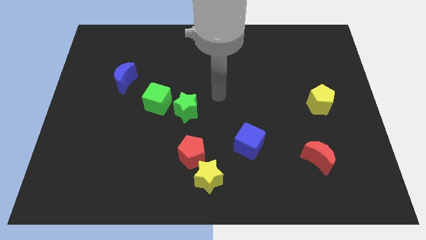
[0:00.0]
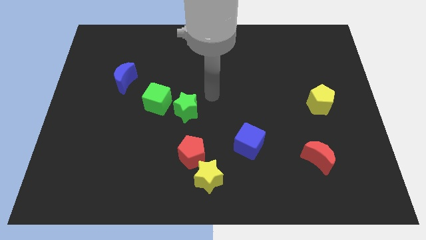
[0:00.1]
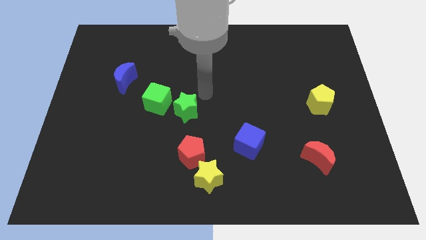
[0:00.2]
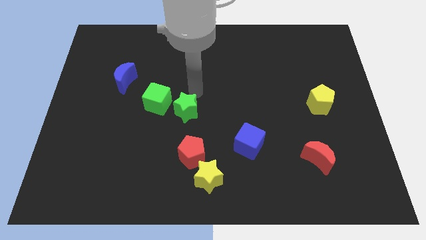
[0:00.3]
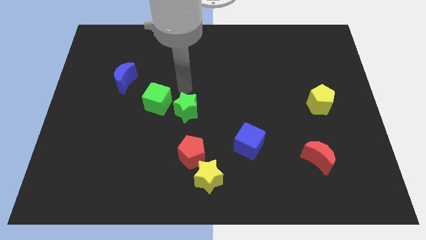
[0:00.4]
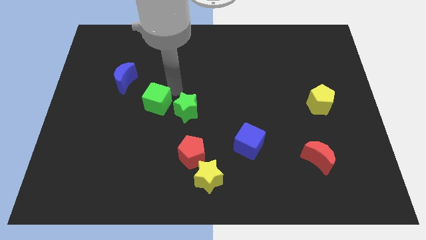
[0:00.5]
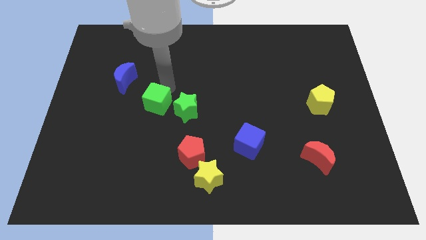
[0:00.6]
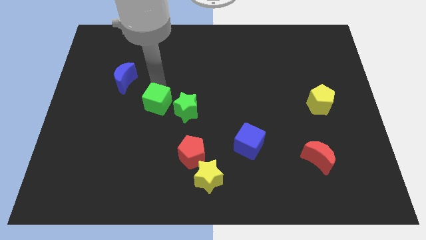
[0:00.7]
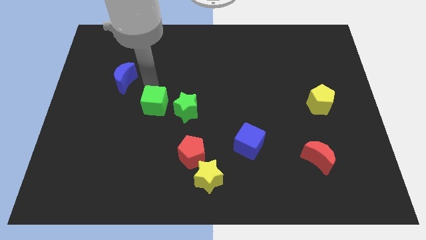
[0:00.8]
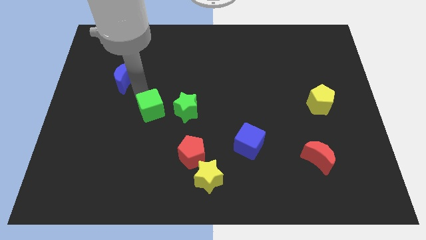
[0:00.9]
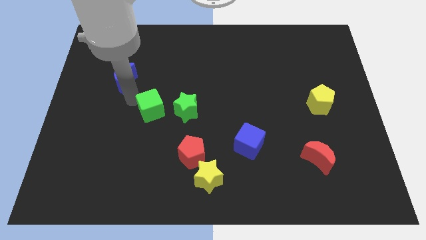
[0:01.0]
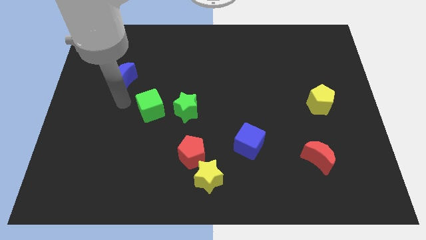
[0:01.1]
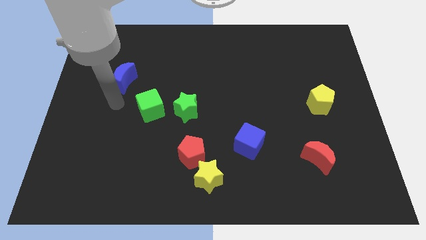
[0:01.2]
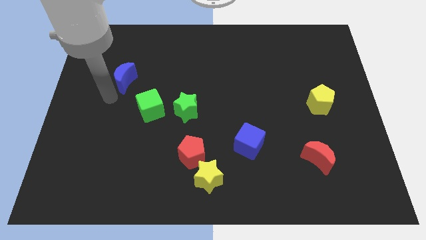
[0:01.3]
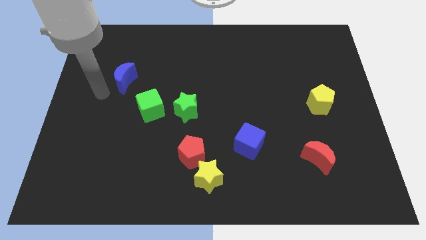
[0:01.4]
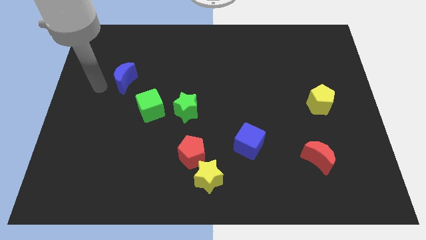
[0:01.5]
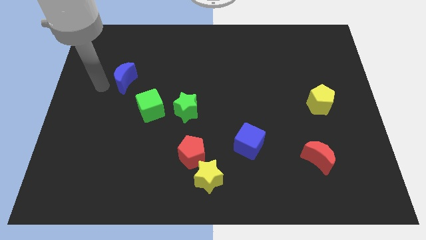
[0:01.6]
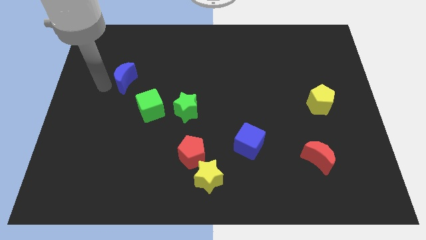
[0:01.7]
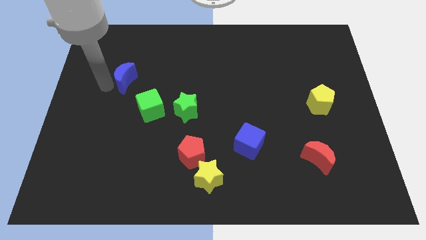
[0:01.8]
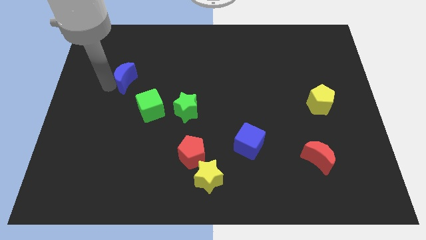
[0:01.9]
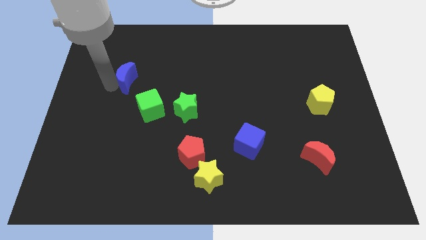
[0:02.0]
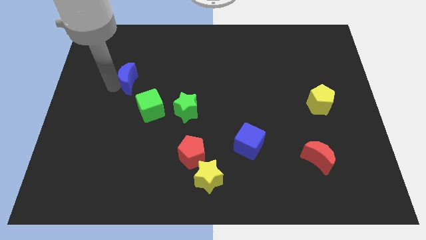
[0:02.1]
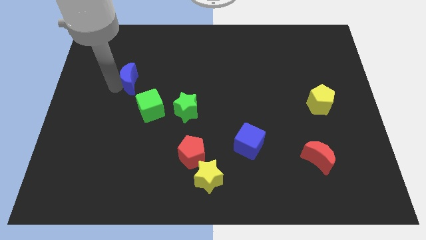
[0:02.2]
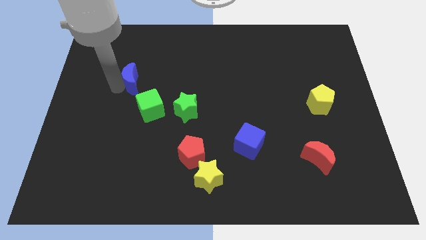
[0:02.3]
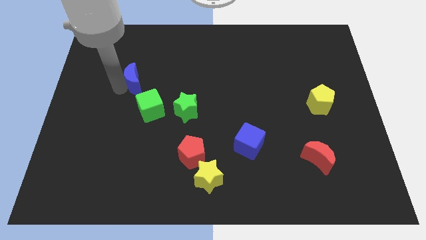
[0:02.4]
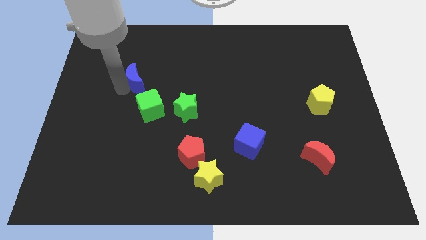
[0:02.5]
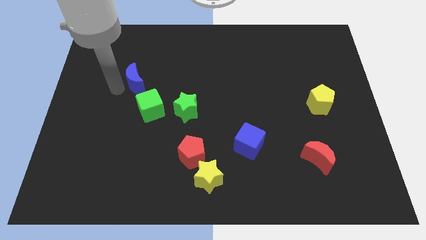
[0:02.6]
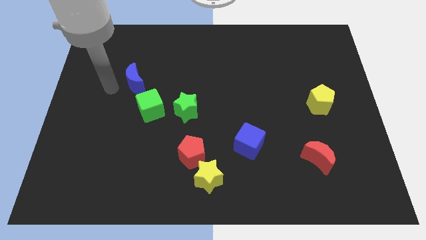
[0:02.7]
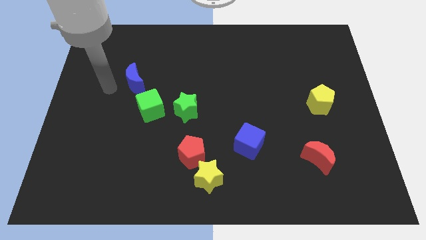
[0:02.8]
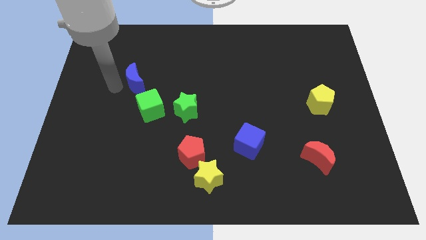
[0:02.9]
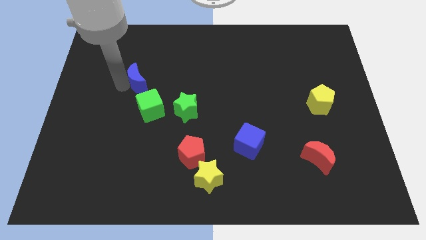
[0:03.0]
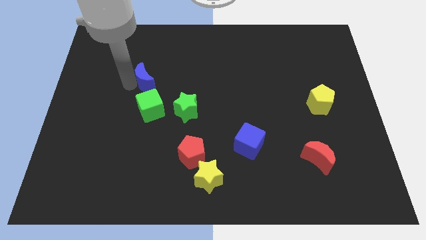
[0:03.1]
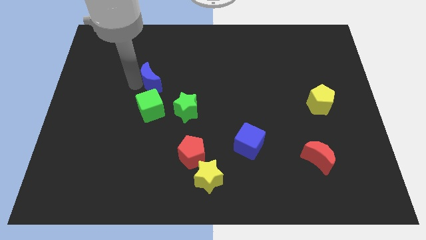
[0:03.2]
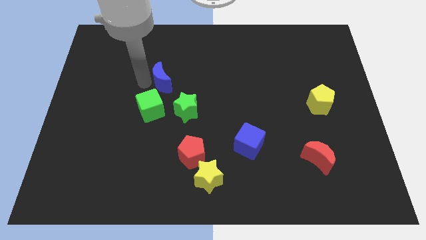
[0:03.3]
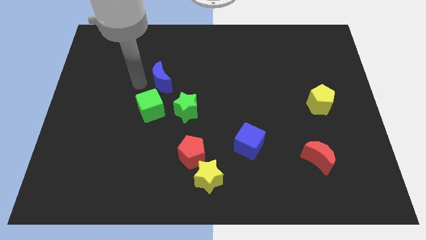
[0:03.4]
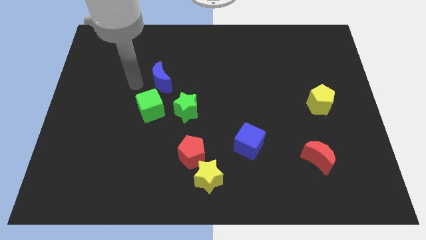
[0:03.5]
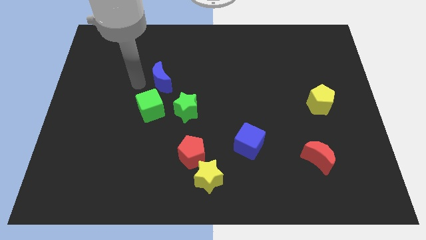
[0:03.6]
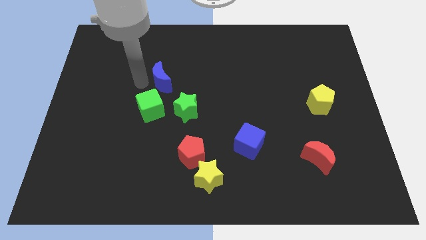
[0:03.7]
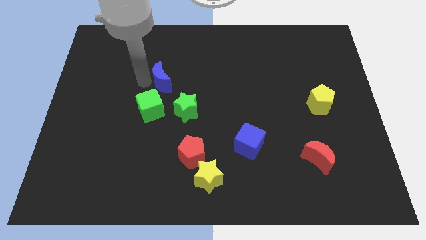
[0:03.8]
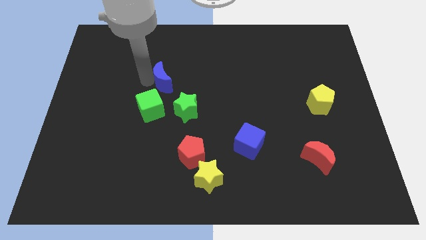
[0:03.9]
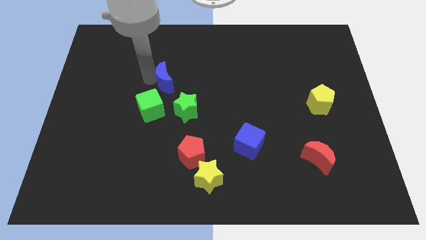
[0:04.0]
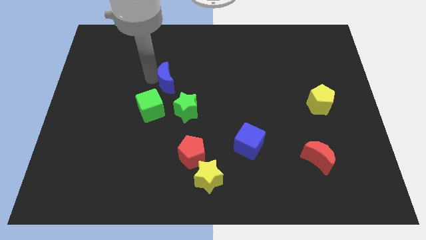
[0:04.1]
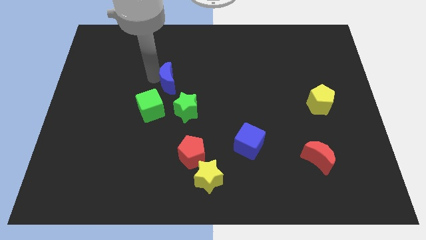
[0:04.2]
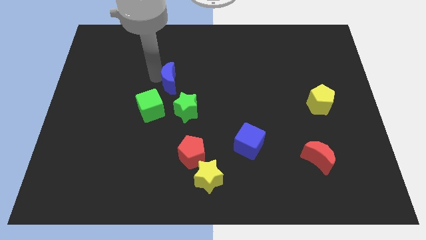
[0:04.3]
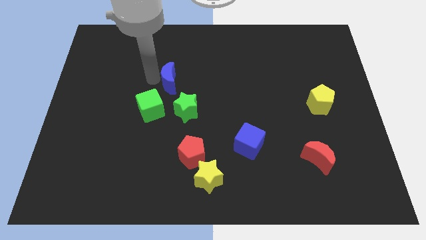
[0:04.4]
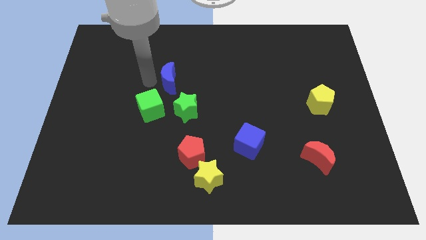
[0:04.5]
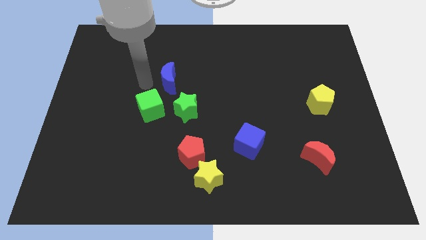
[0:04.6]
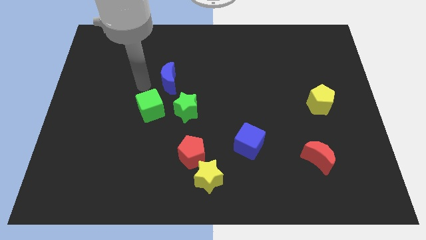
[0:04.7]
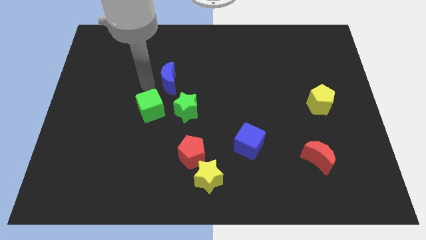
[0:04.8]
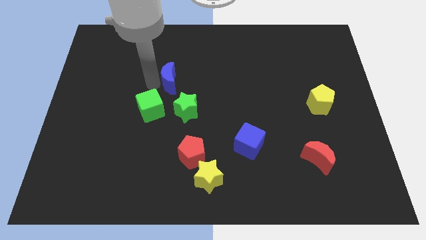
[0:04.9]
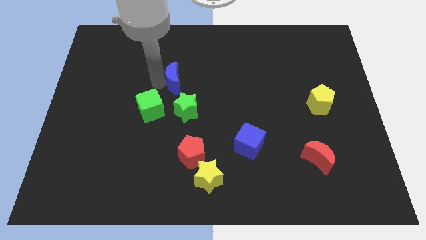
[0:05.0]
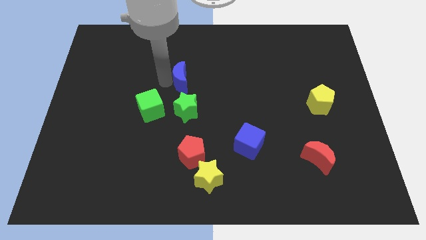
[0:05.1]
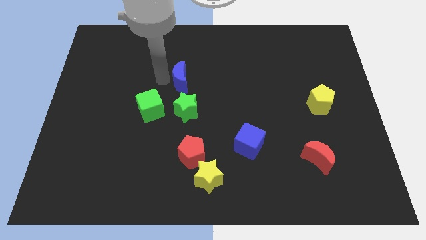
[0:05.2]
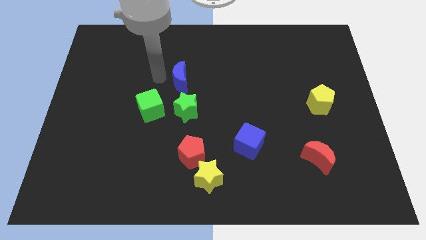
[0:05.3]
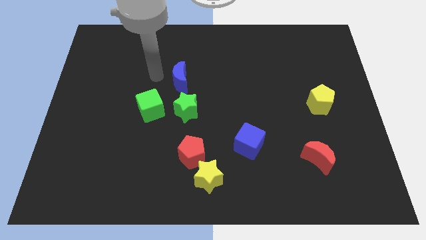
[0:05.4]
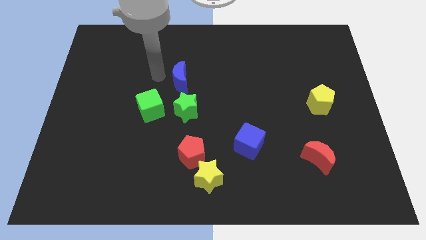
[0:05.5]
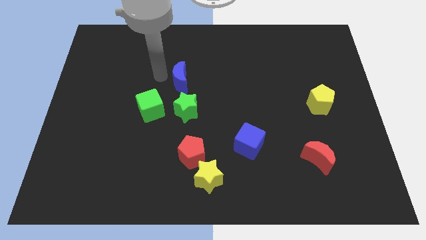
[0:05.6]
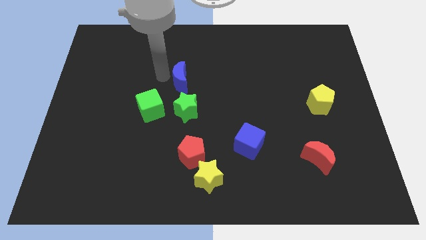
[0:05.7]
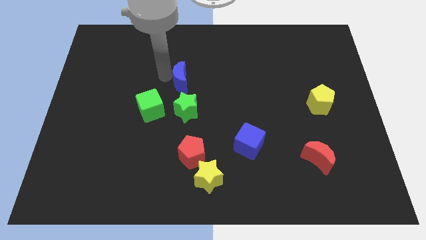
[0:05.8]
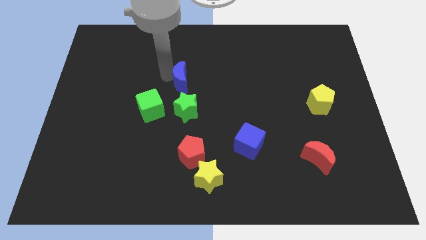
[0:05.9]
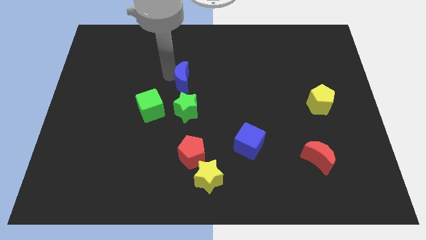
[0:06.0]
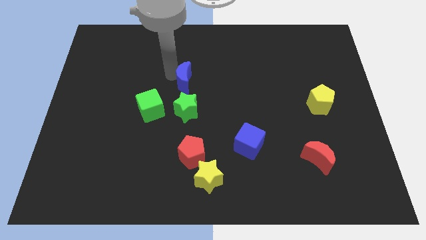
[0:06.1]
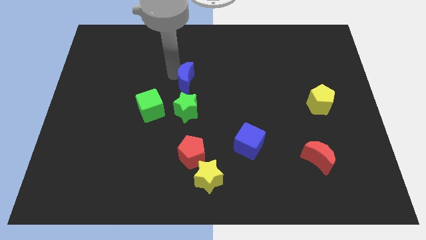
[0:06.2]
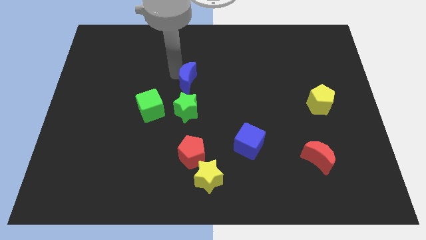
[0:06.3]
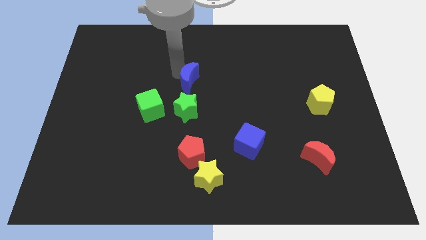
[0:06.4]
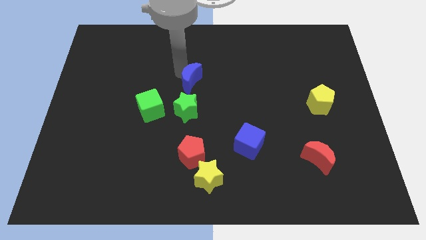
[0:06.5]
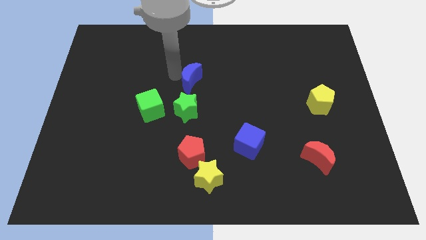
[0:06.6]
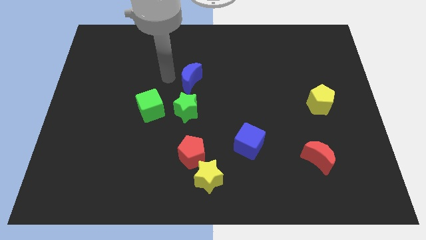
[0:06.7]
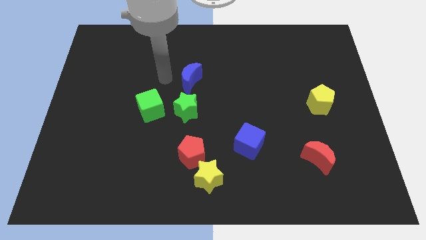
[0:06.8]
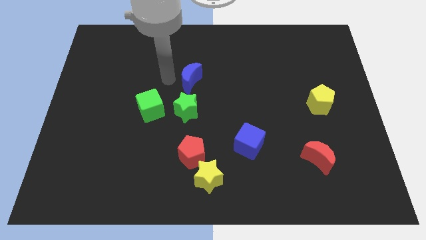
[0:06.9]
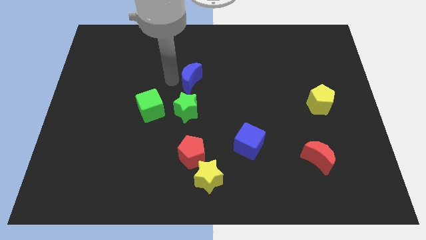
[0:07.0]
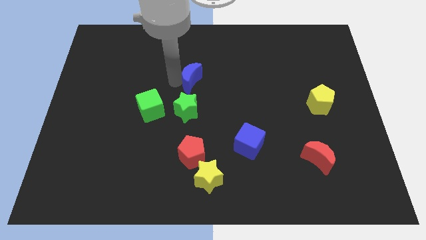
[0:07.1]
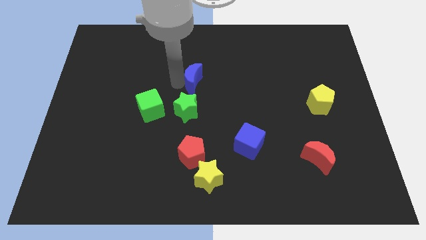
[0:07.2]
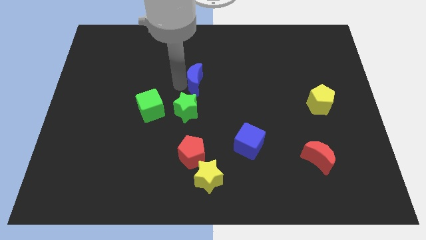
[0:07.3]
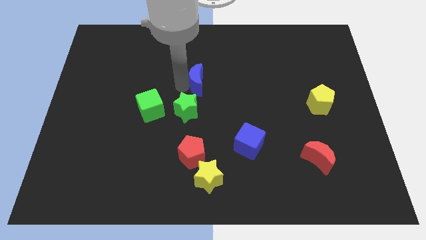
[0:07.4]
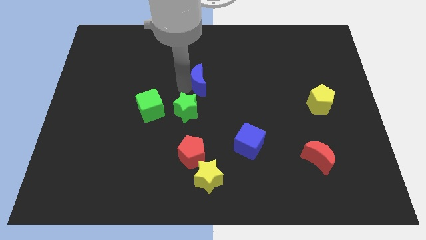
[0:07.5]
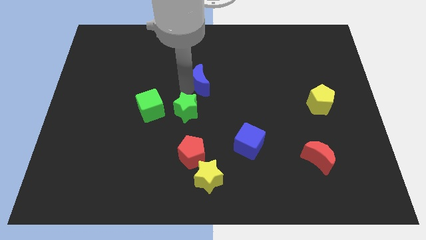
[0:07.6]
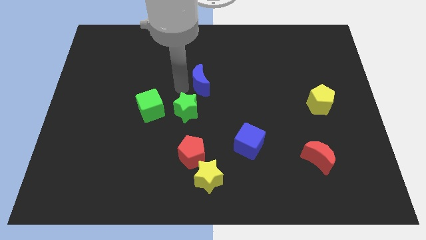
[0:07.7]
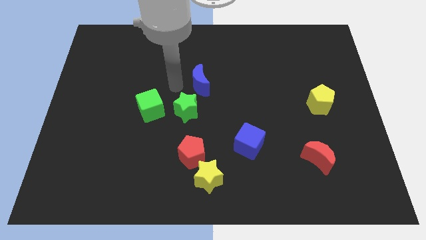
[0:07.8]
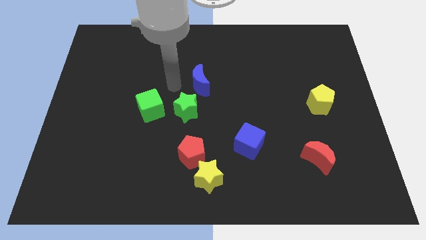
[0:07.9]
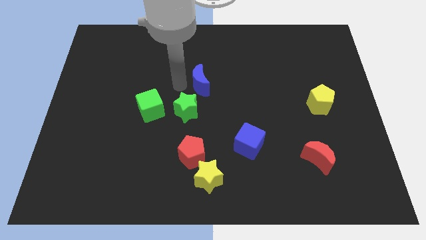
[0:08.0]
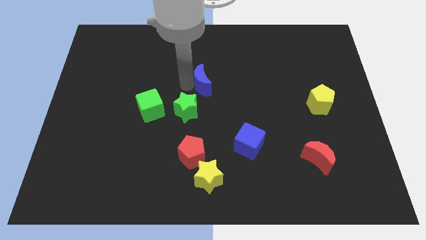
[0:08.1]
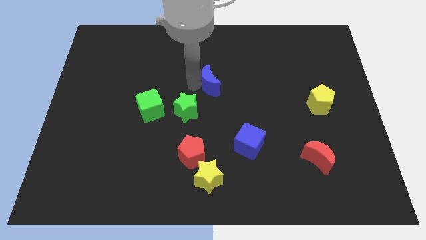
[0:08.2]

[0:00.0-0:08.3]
move the blue moon to the right
